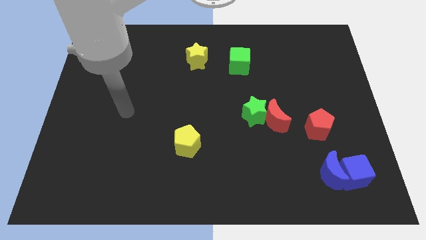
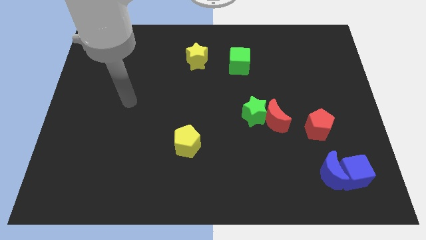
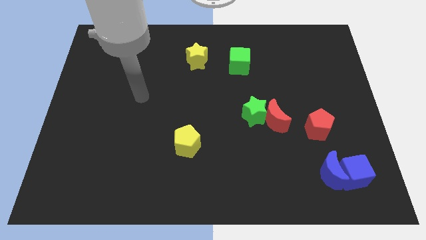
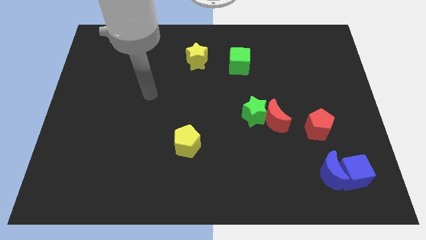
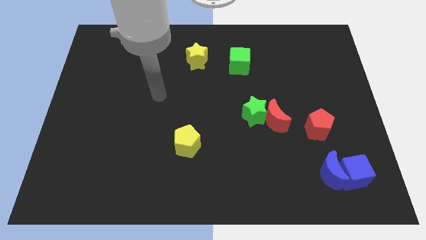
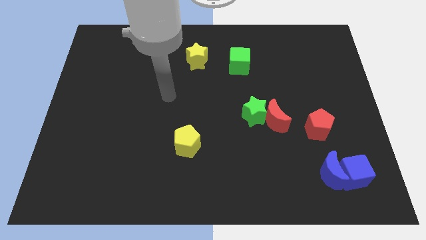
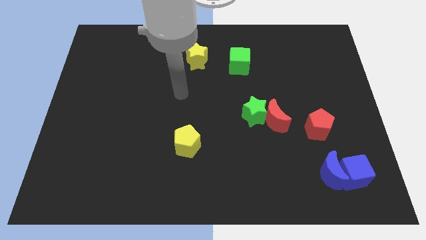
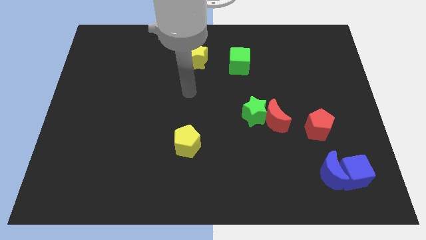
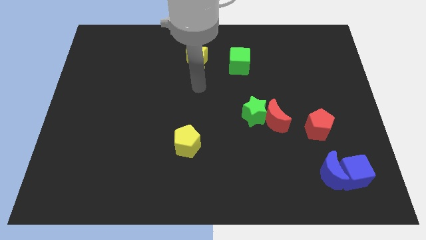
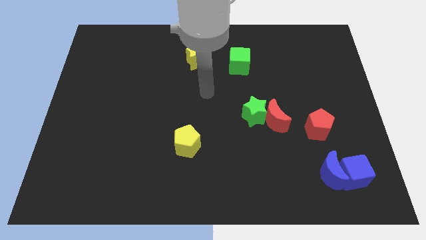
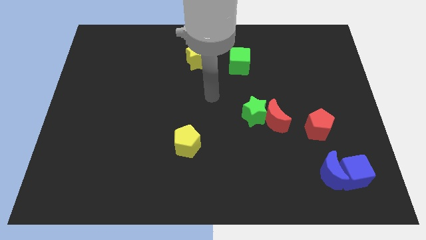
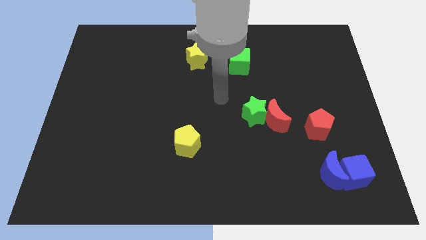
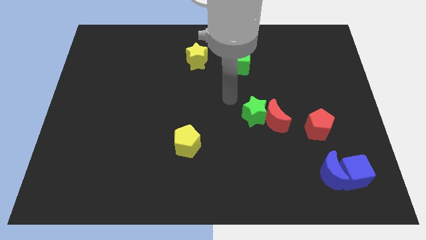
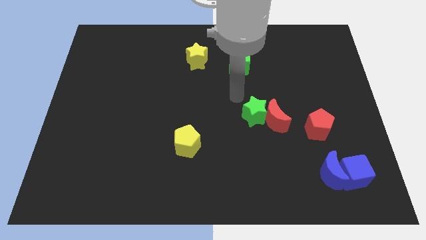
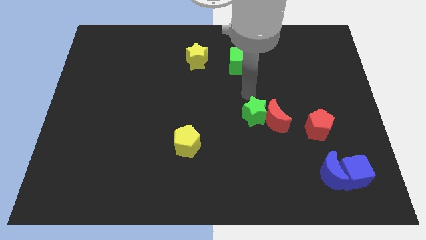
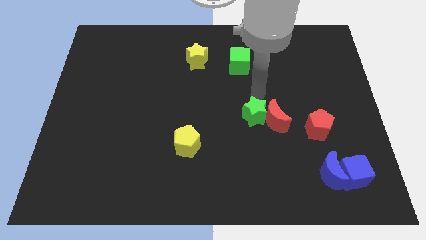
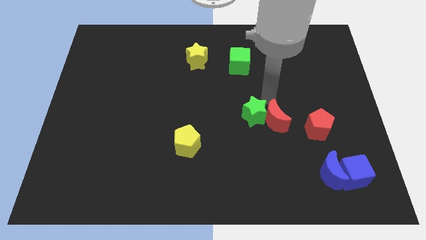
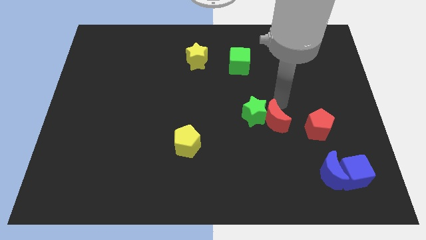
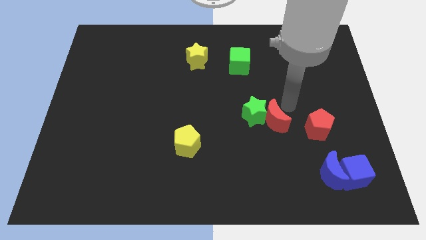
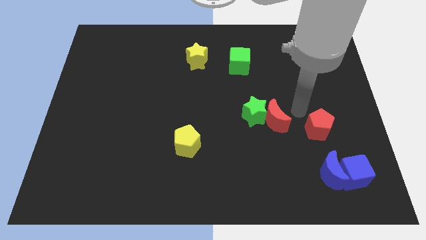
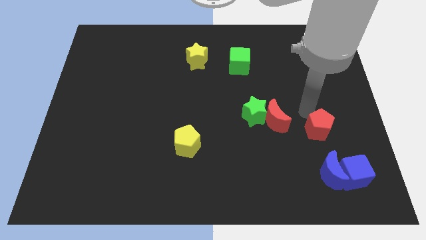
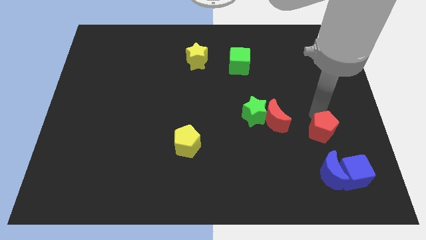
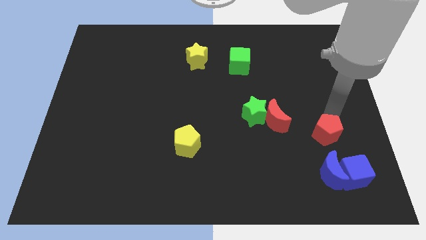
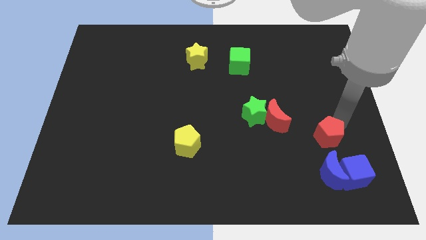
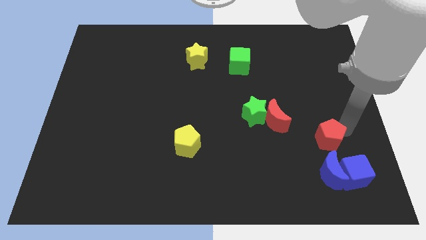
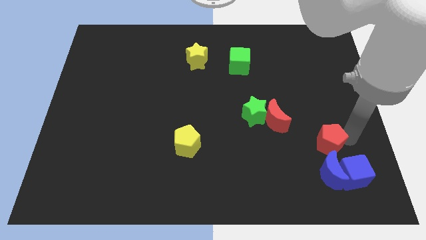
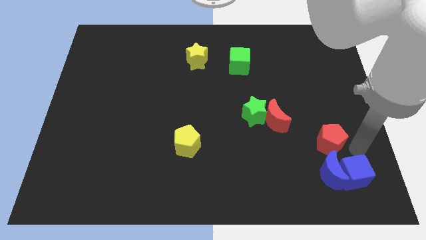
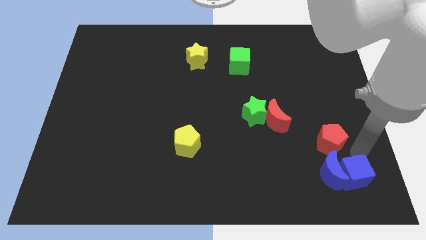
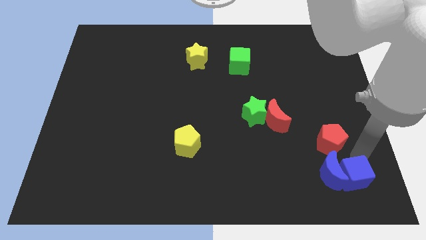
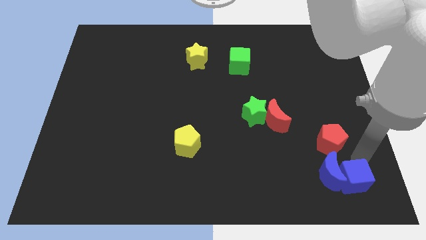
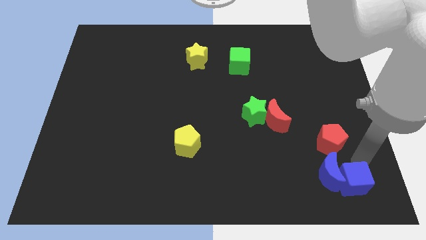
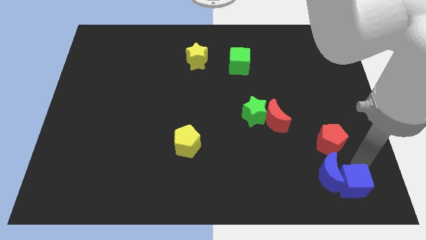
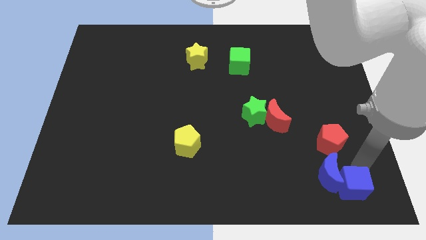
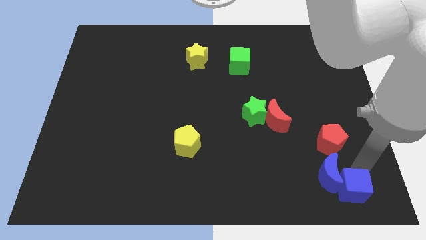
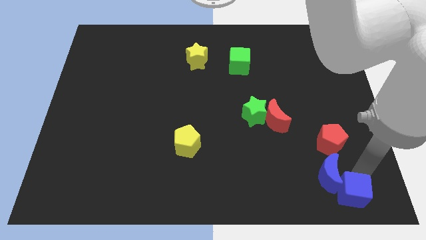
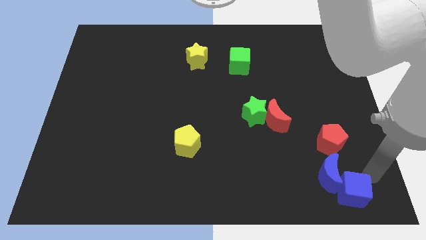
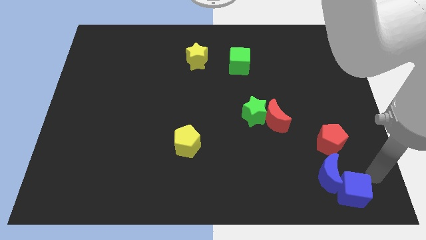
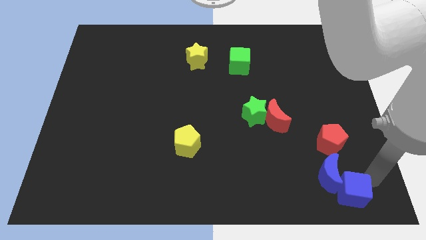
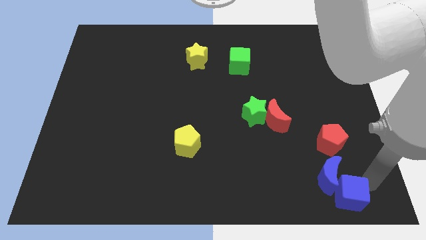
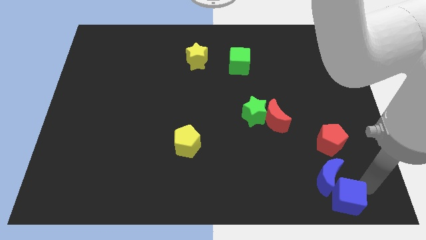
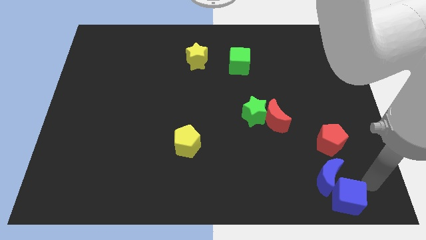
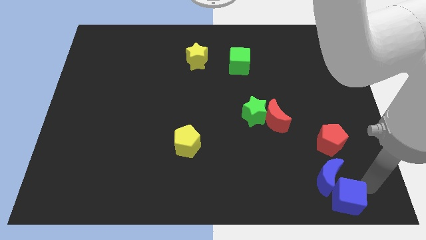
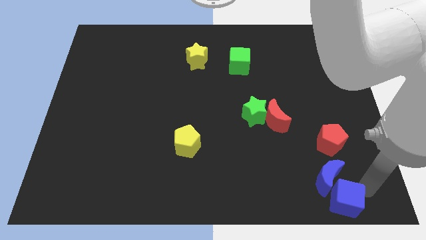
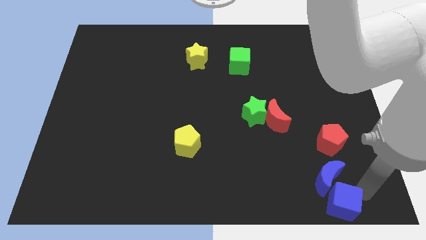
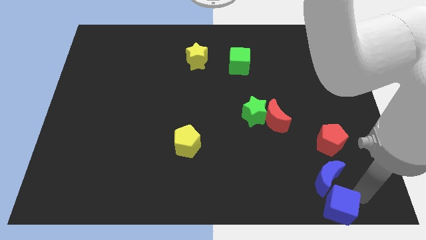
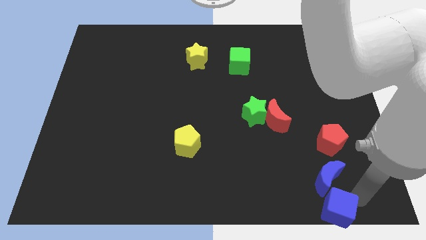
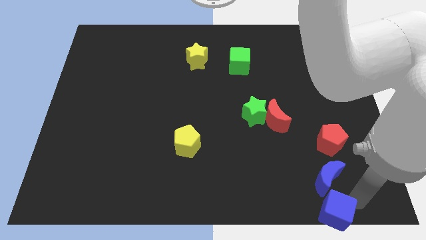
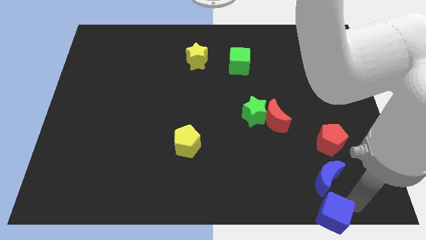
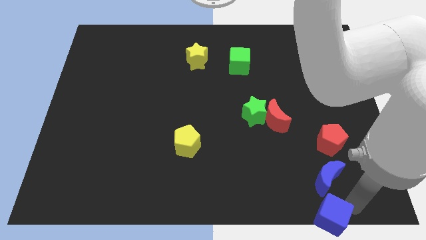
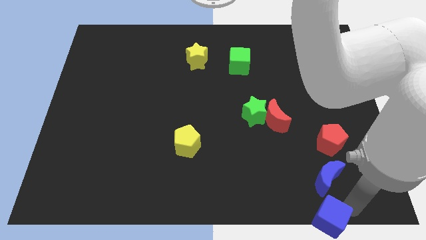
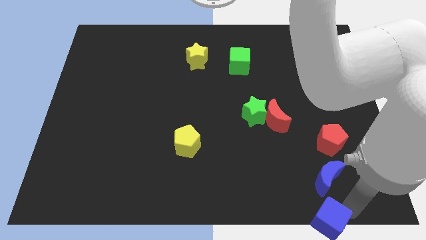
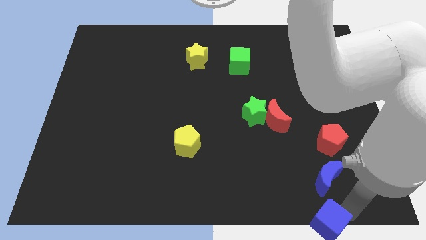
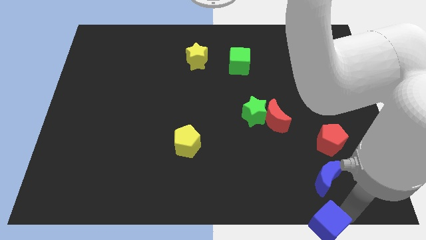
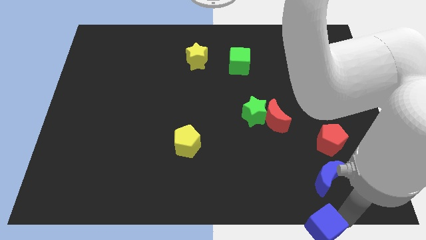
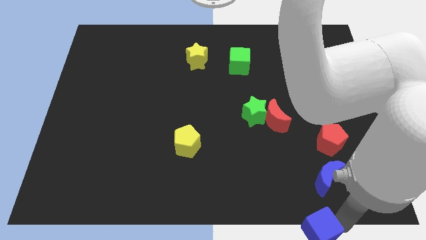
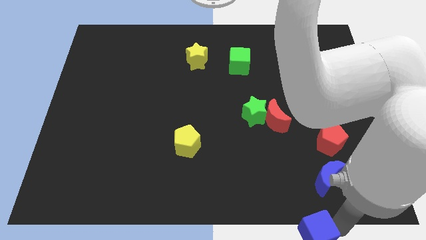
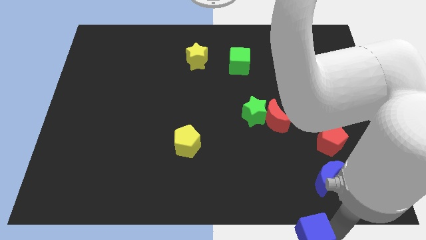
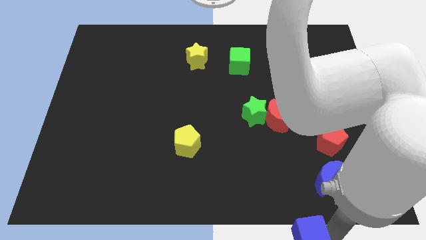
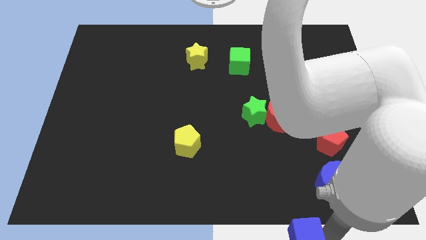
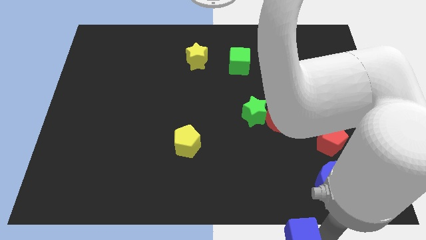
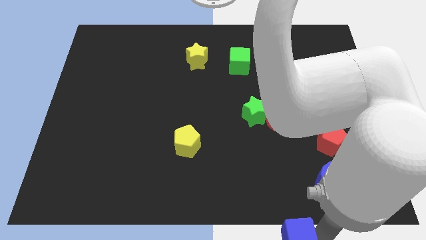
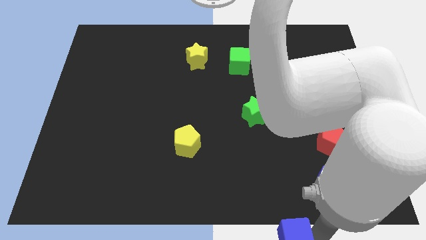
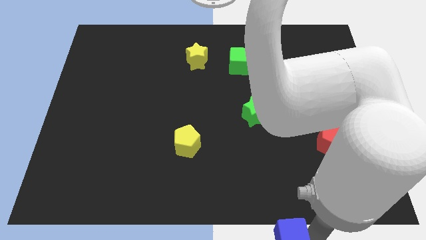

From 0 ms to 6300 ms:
slide the blue cube to the bottom side
